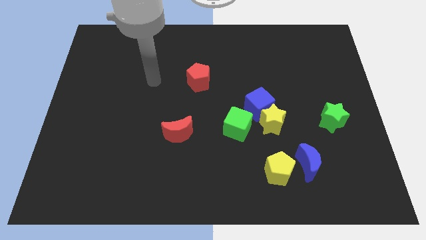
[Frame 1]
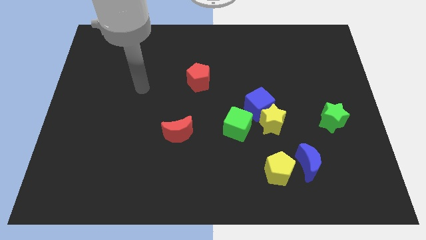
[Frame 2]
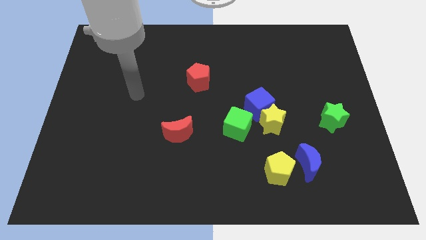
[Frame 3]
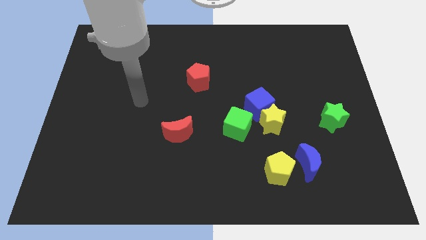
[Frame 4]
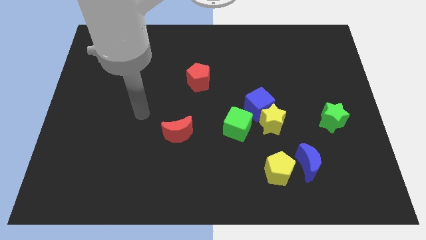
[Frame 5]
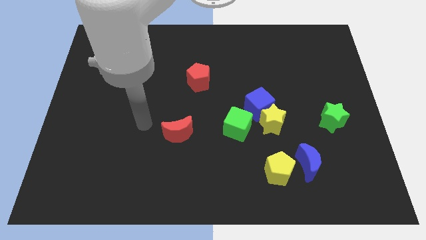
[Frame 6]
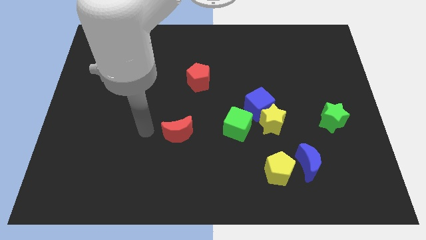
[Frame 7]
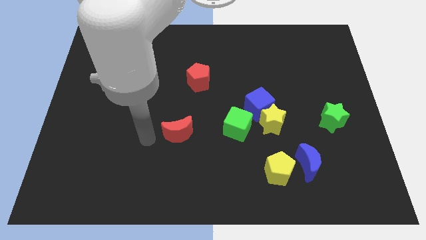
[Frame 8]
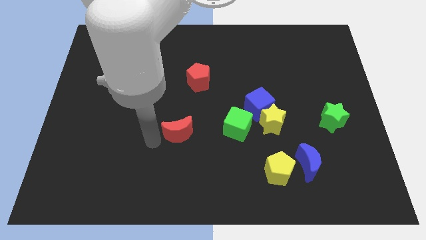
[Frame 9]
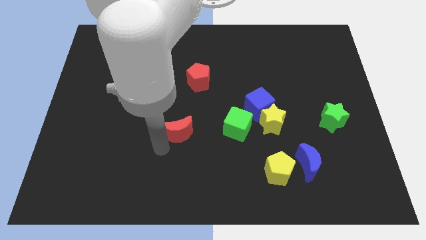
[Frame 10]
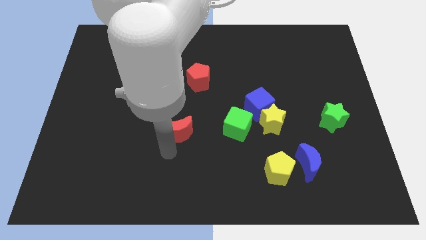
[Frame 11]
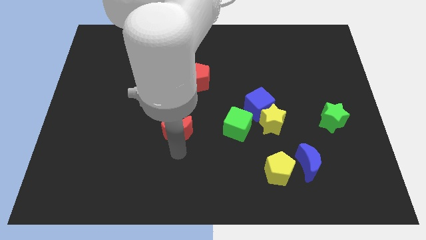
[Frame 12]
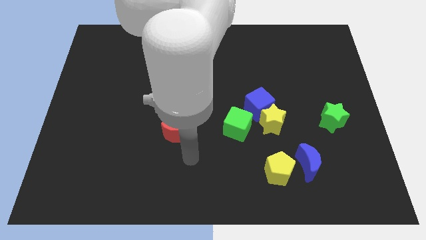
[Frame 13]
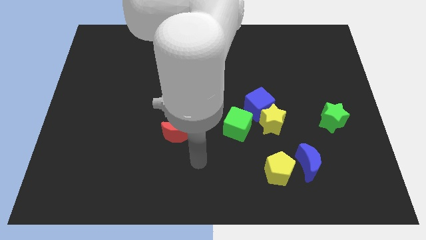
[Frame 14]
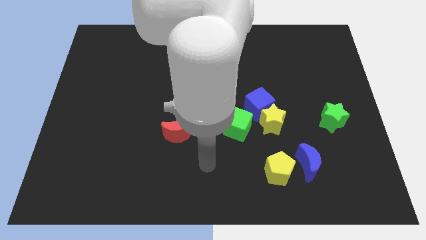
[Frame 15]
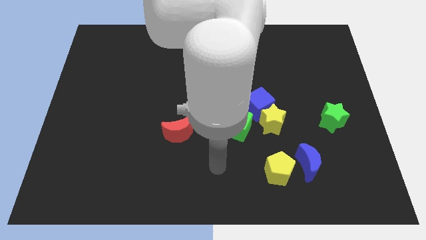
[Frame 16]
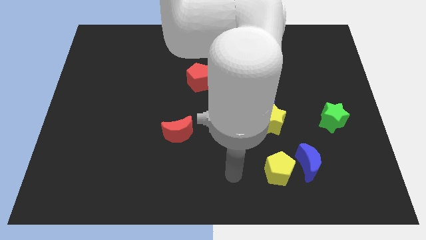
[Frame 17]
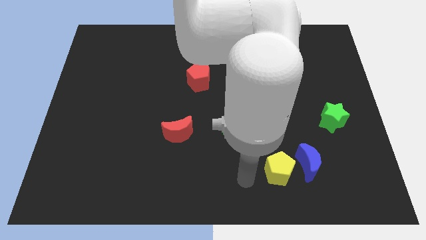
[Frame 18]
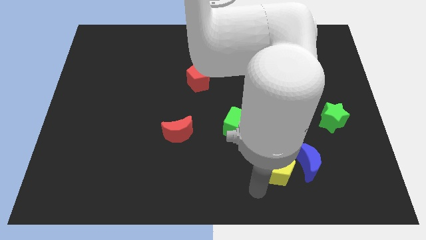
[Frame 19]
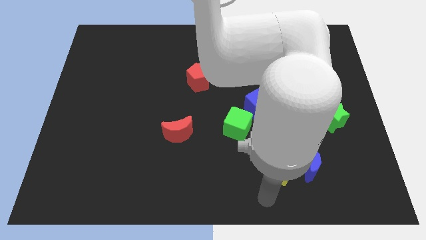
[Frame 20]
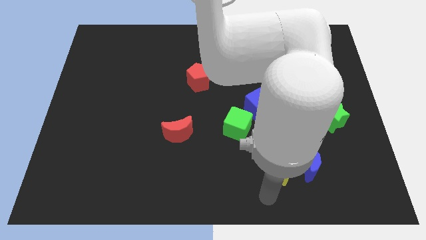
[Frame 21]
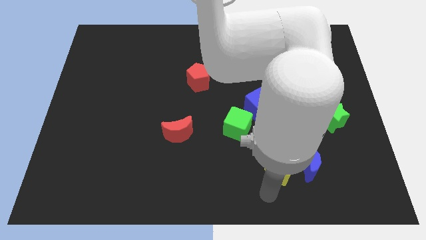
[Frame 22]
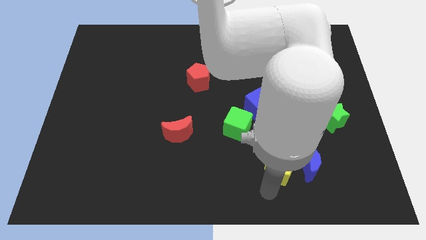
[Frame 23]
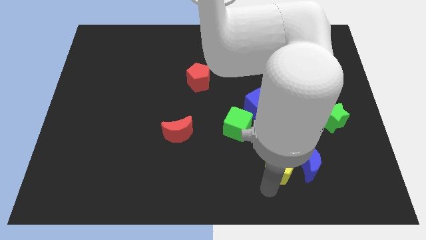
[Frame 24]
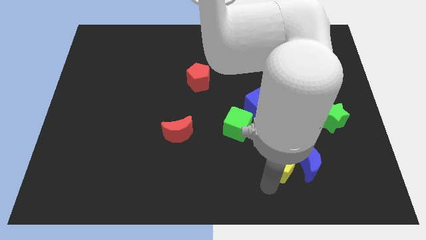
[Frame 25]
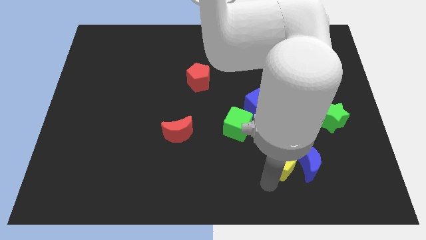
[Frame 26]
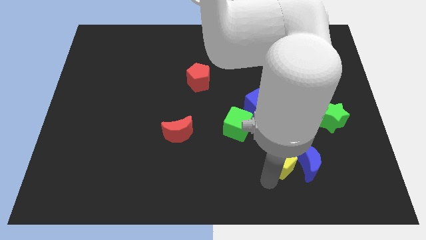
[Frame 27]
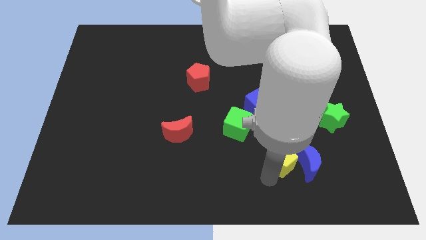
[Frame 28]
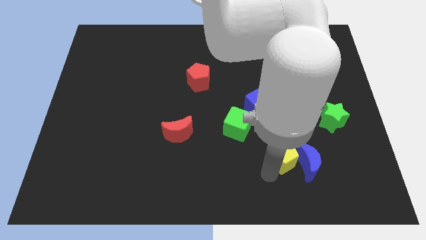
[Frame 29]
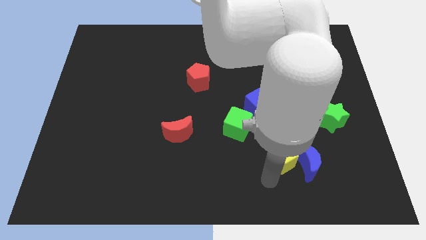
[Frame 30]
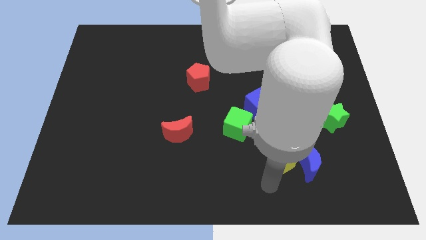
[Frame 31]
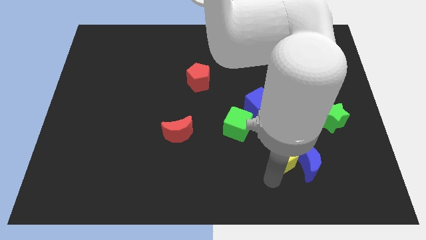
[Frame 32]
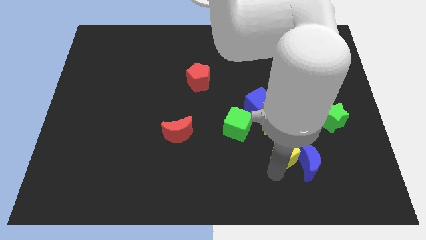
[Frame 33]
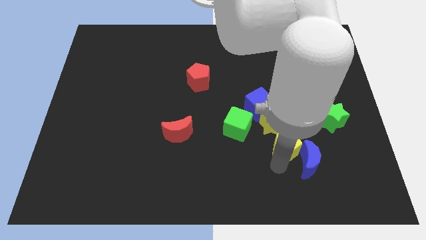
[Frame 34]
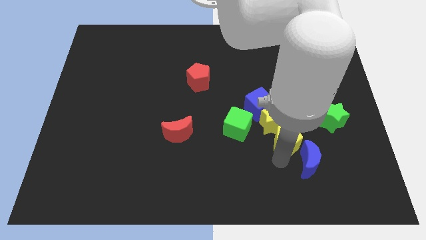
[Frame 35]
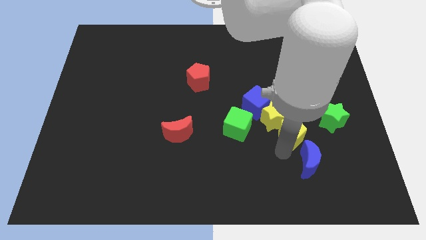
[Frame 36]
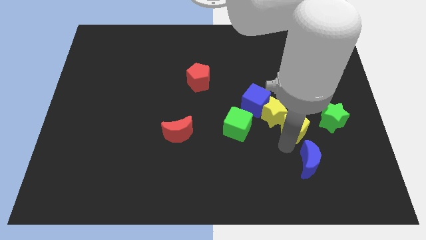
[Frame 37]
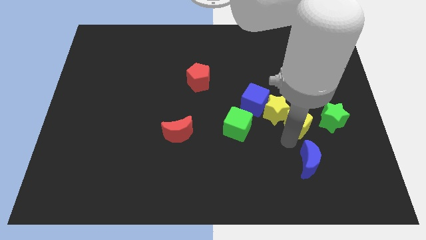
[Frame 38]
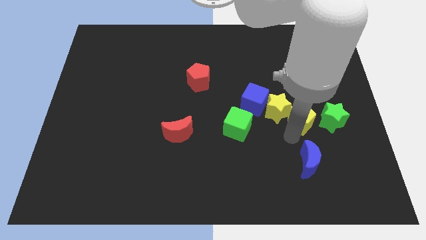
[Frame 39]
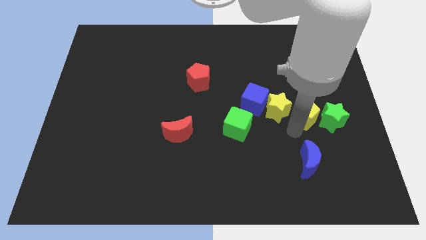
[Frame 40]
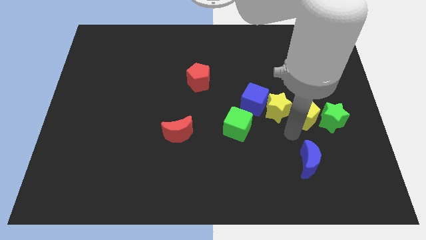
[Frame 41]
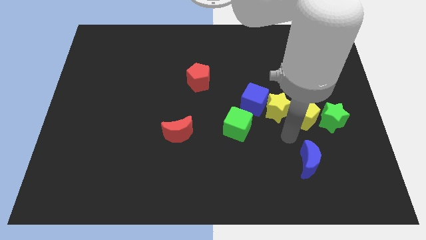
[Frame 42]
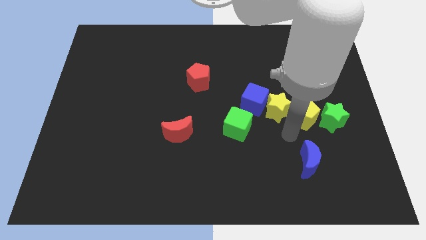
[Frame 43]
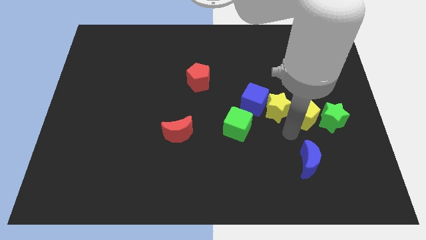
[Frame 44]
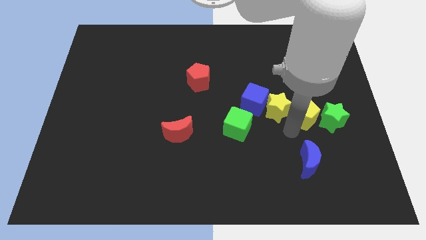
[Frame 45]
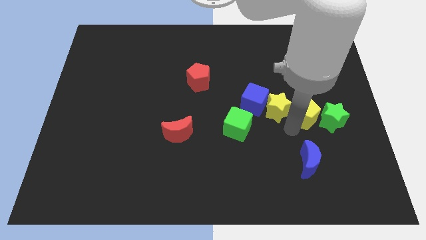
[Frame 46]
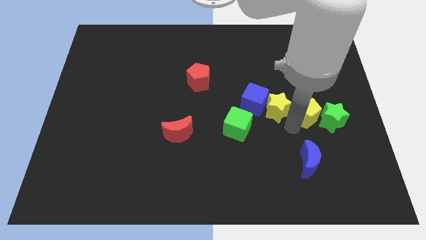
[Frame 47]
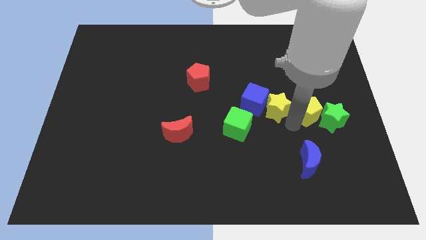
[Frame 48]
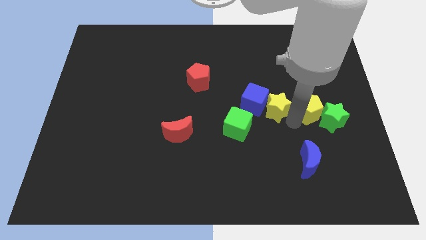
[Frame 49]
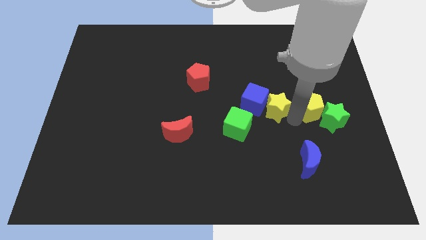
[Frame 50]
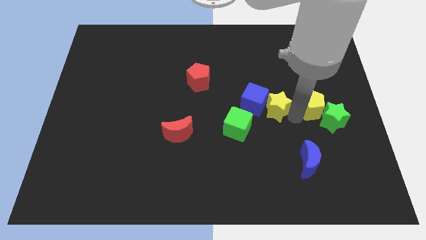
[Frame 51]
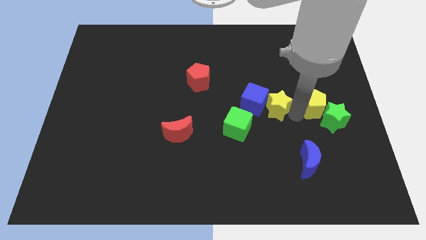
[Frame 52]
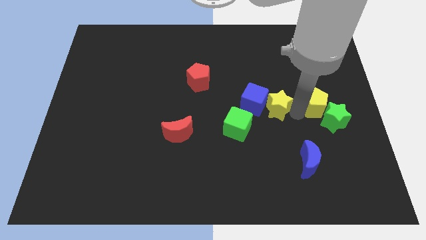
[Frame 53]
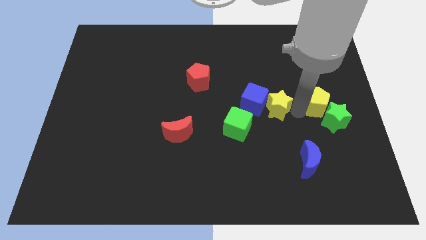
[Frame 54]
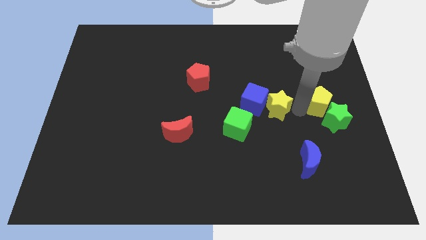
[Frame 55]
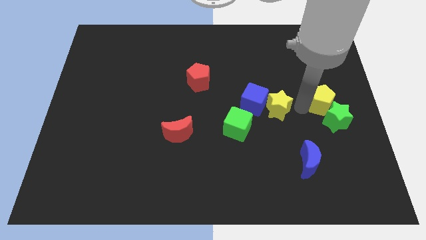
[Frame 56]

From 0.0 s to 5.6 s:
push the yellow pentagon to the center right

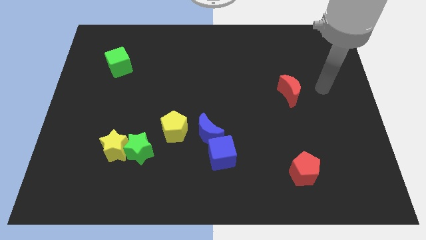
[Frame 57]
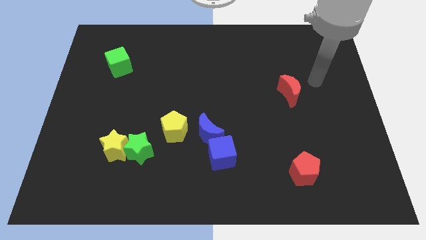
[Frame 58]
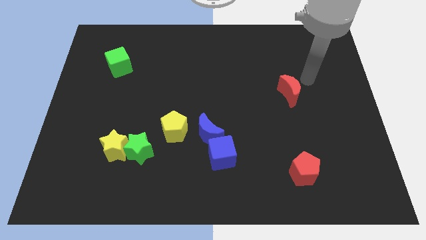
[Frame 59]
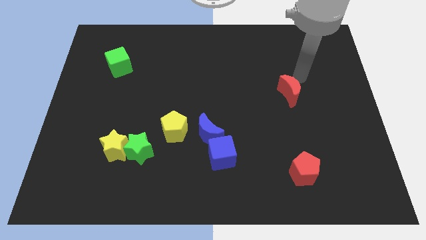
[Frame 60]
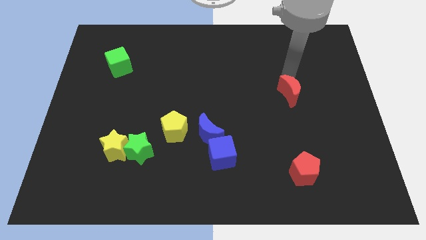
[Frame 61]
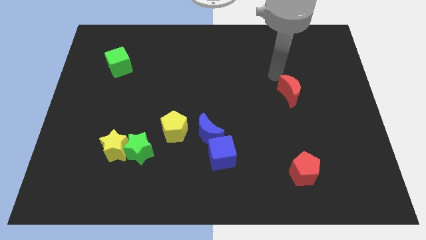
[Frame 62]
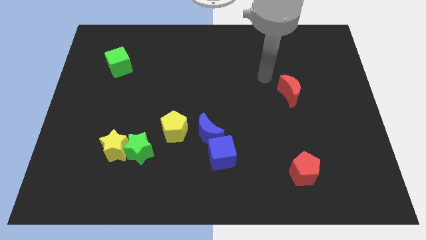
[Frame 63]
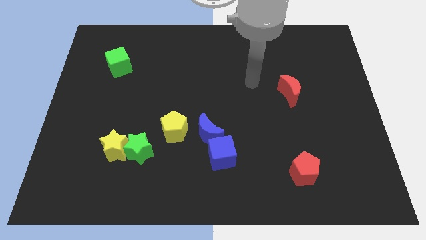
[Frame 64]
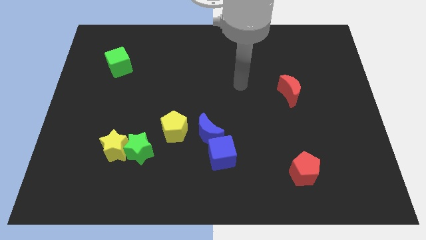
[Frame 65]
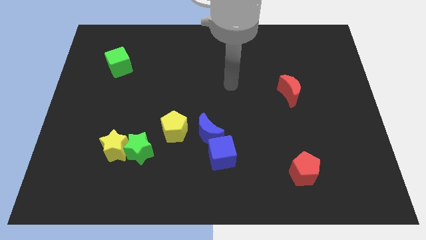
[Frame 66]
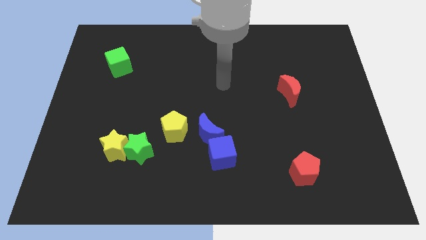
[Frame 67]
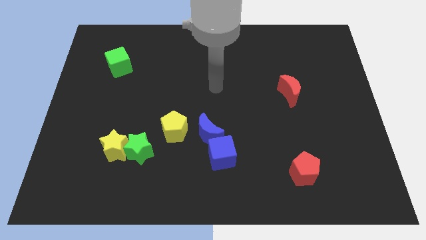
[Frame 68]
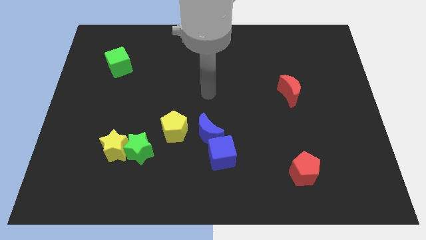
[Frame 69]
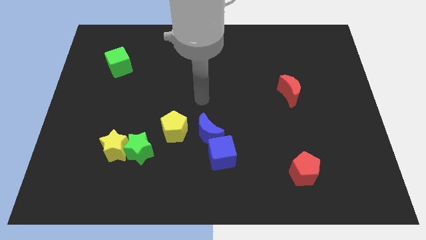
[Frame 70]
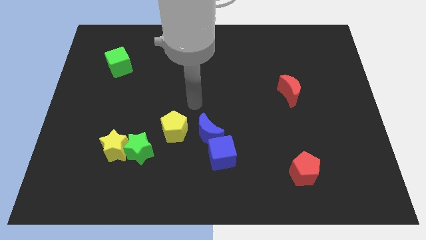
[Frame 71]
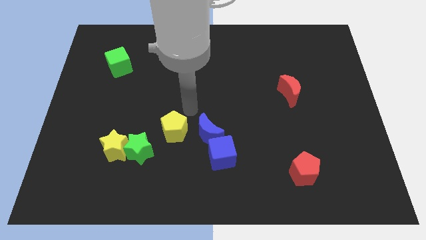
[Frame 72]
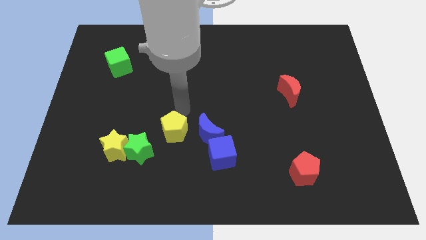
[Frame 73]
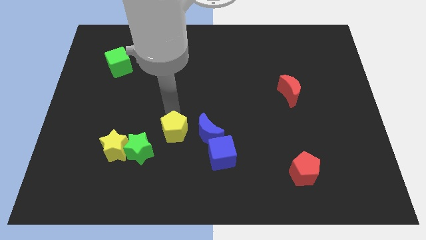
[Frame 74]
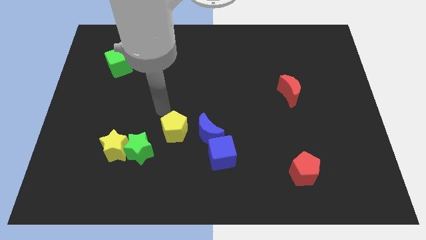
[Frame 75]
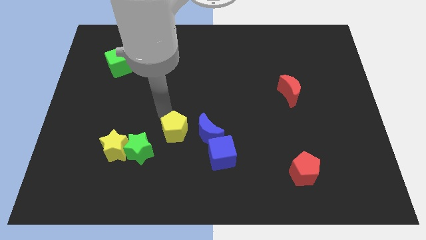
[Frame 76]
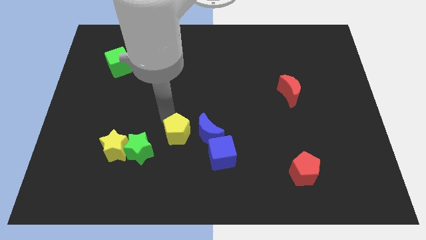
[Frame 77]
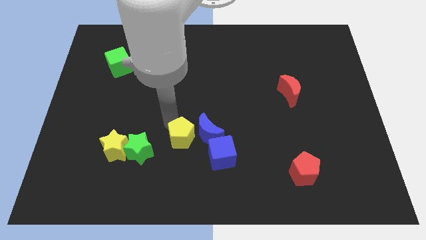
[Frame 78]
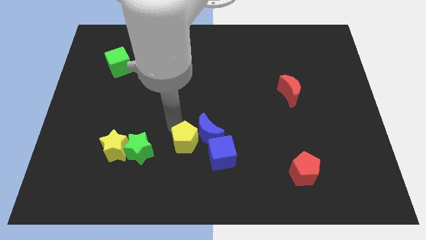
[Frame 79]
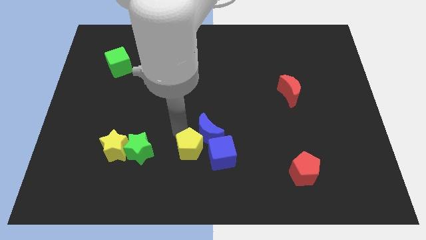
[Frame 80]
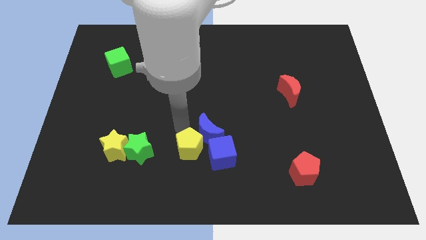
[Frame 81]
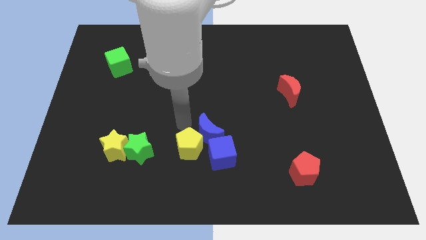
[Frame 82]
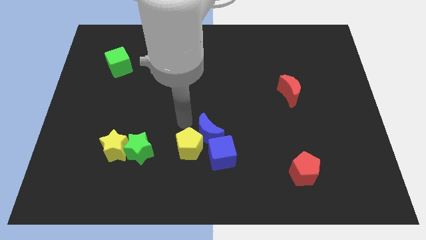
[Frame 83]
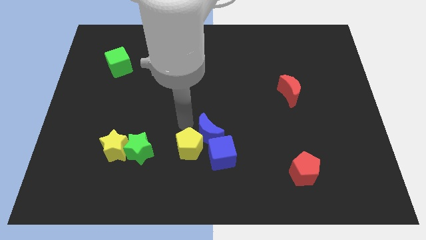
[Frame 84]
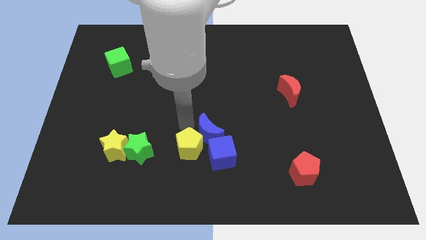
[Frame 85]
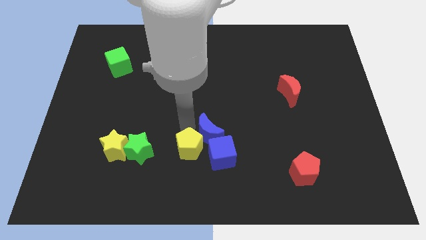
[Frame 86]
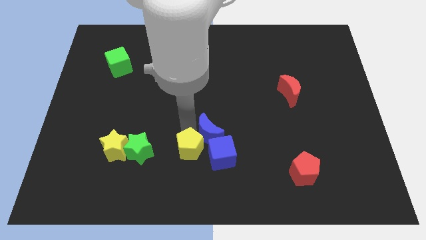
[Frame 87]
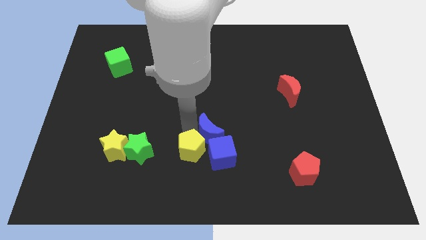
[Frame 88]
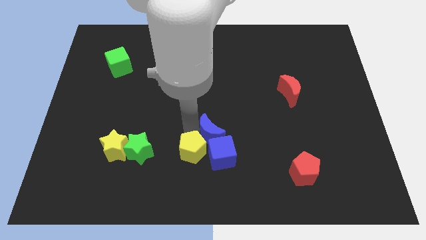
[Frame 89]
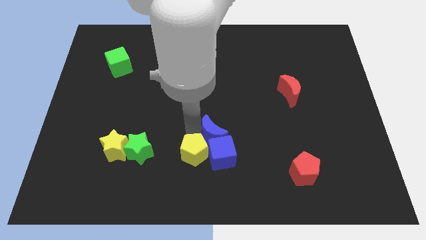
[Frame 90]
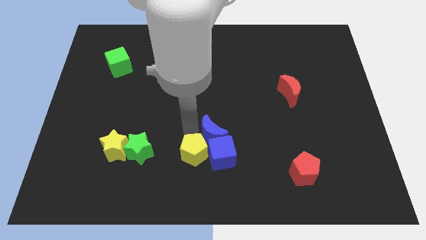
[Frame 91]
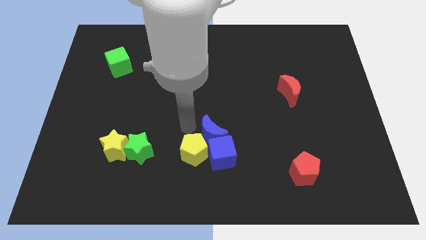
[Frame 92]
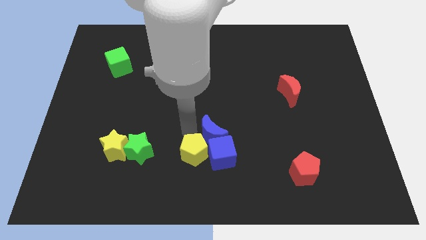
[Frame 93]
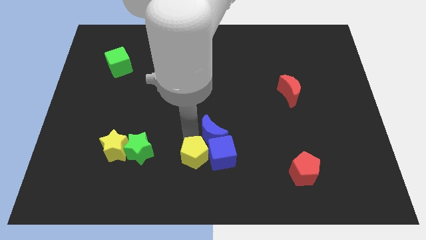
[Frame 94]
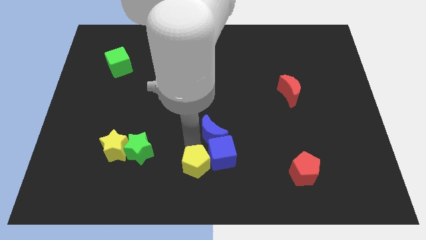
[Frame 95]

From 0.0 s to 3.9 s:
push the yellow pentagon to the bottom side
